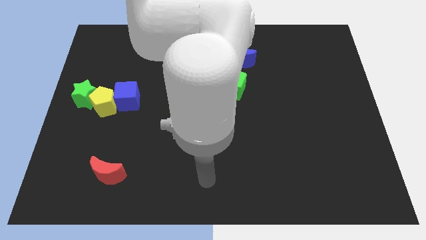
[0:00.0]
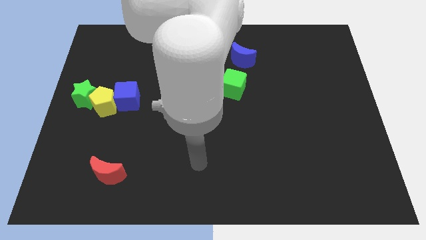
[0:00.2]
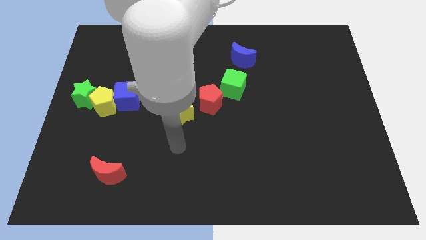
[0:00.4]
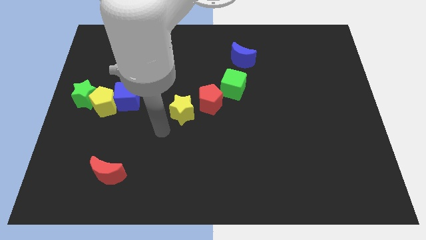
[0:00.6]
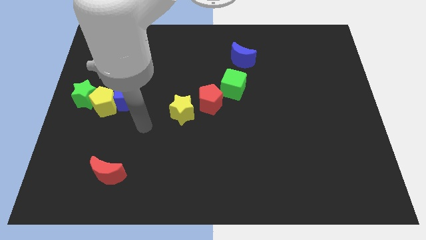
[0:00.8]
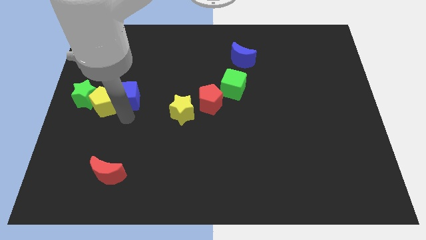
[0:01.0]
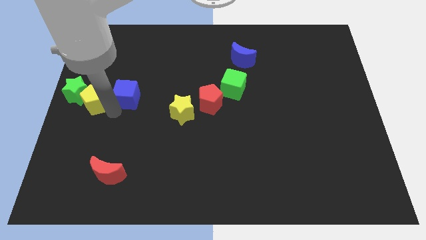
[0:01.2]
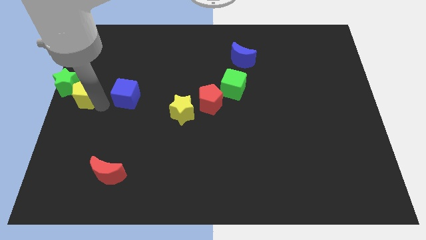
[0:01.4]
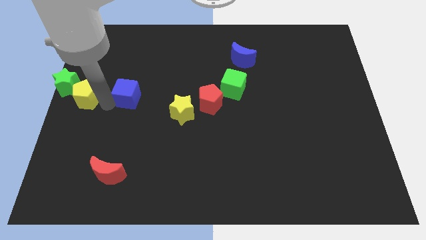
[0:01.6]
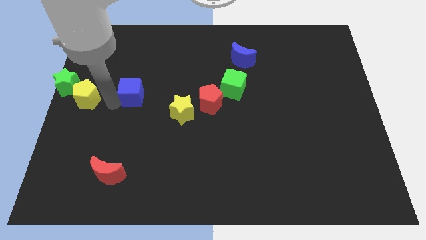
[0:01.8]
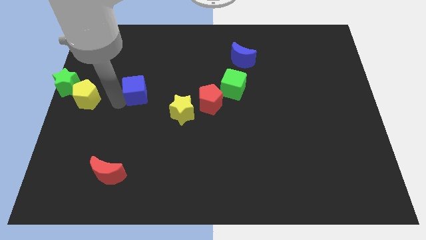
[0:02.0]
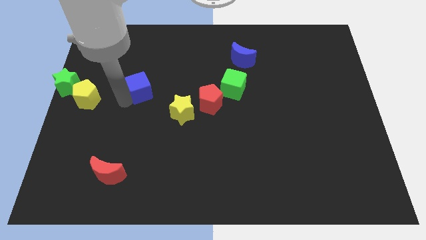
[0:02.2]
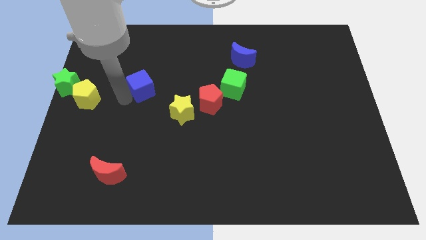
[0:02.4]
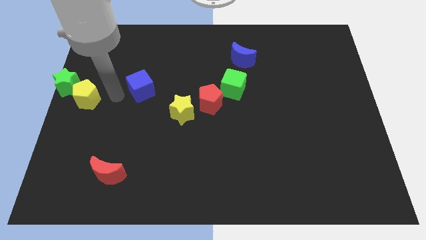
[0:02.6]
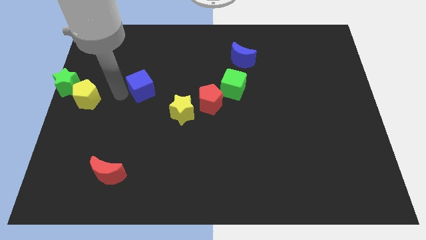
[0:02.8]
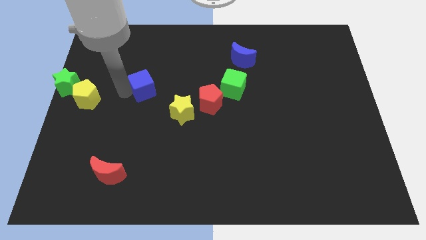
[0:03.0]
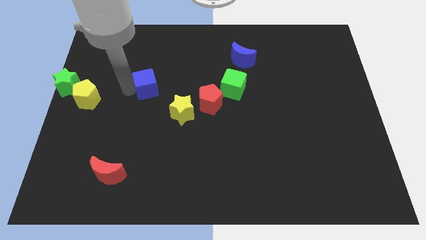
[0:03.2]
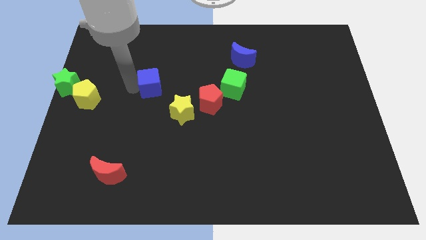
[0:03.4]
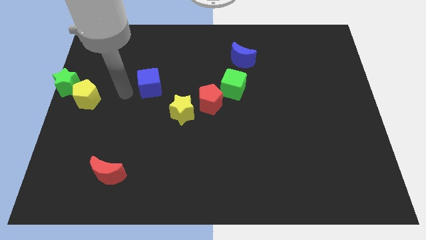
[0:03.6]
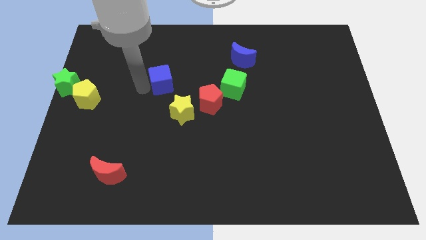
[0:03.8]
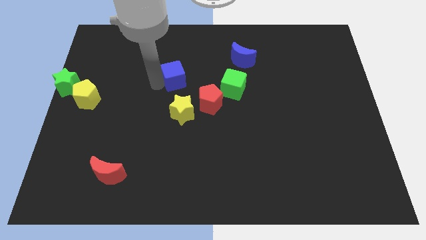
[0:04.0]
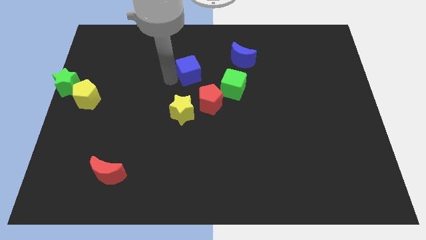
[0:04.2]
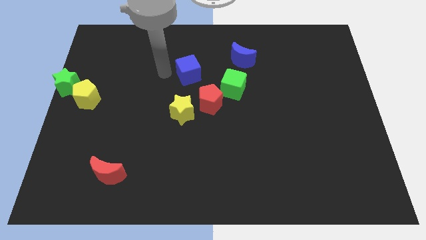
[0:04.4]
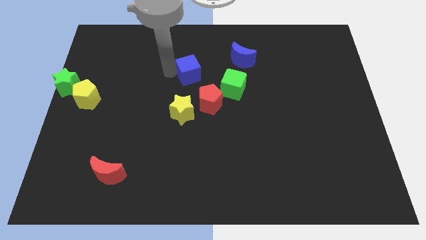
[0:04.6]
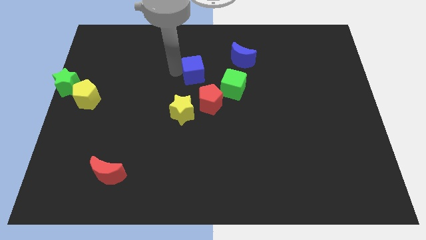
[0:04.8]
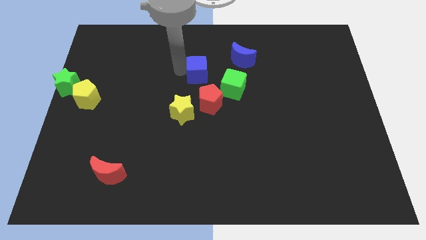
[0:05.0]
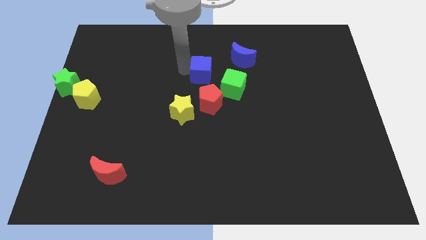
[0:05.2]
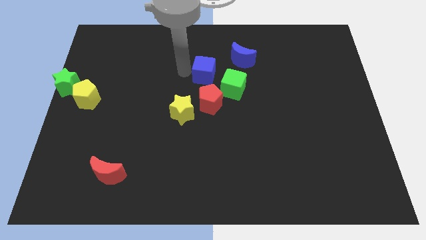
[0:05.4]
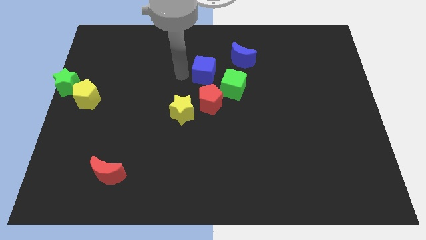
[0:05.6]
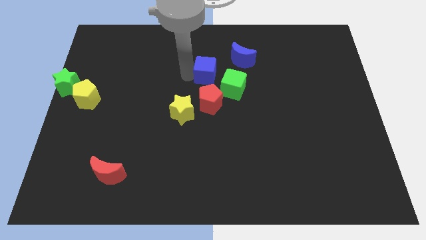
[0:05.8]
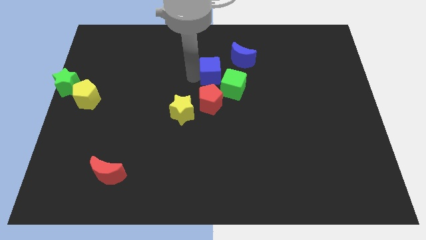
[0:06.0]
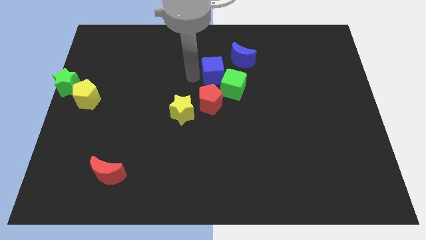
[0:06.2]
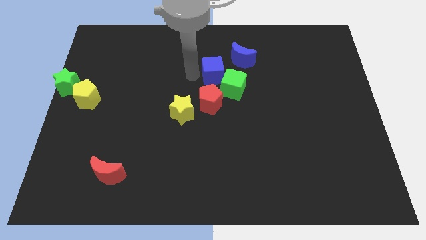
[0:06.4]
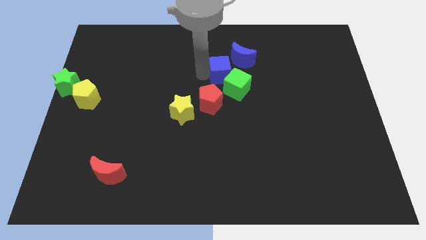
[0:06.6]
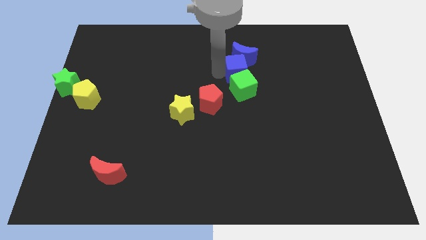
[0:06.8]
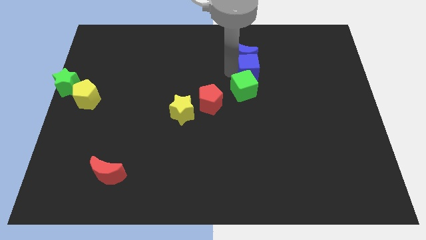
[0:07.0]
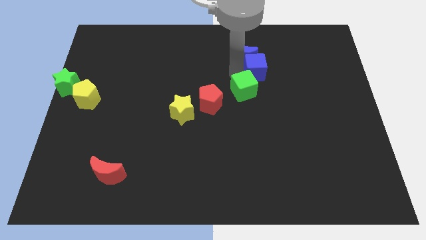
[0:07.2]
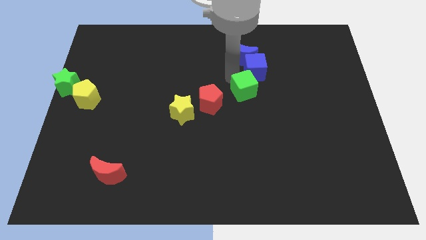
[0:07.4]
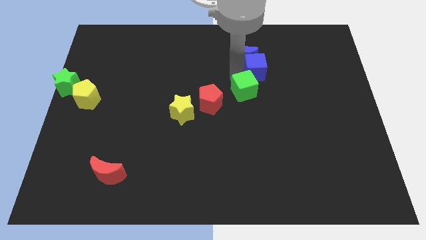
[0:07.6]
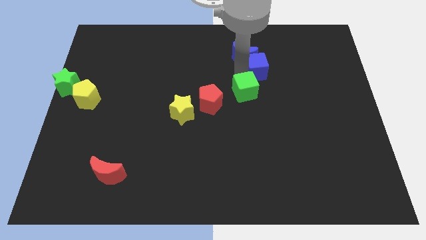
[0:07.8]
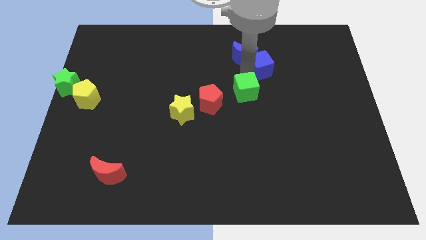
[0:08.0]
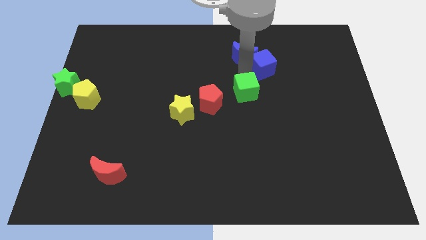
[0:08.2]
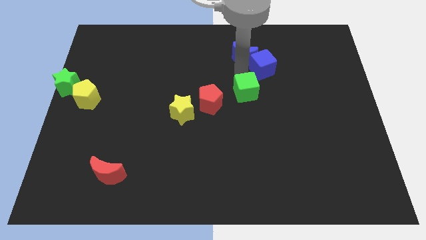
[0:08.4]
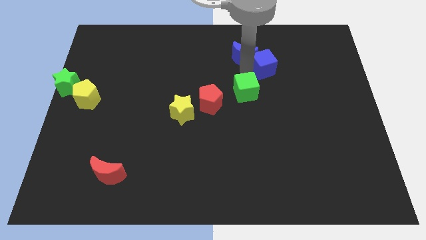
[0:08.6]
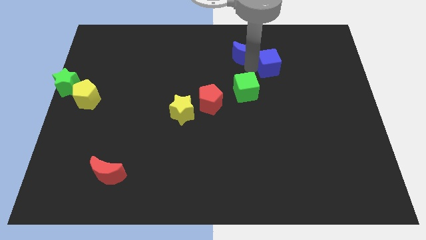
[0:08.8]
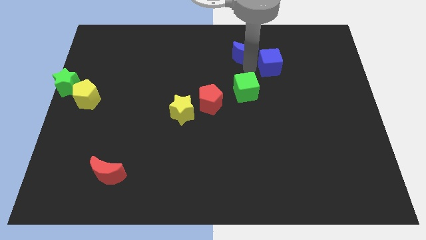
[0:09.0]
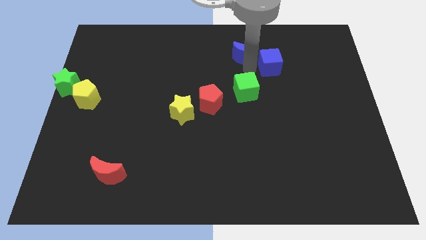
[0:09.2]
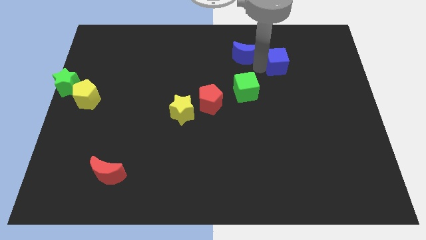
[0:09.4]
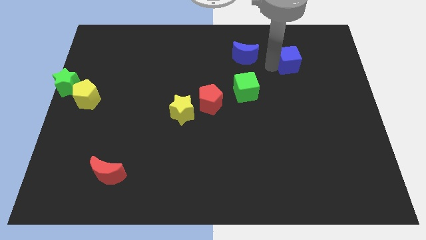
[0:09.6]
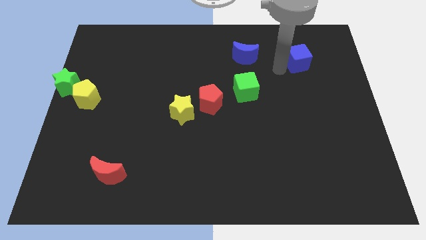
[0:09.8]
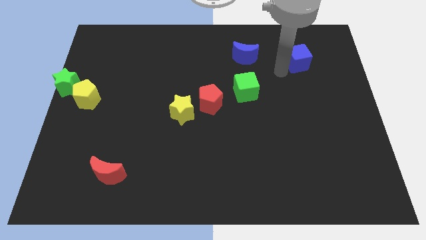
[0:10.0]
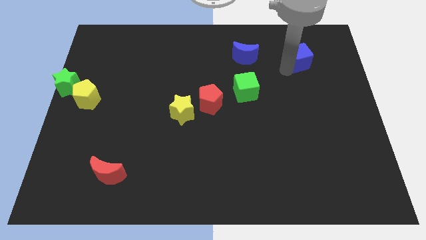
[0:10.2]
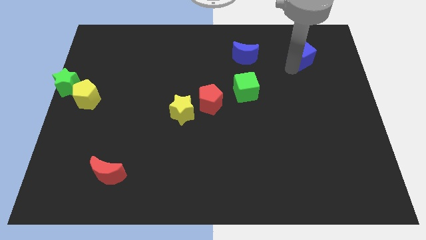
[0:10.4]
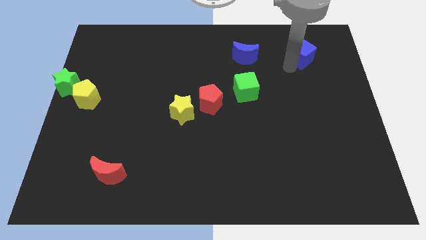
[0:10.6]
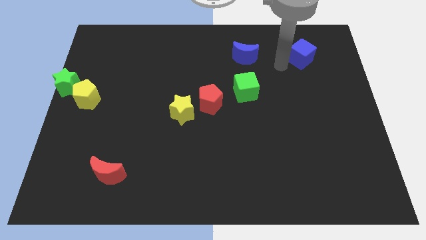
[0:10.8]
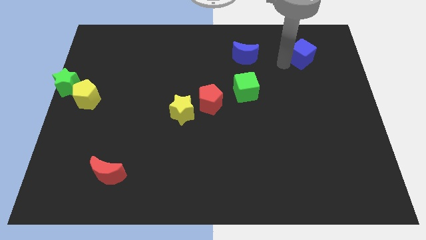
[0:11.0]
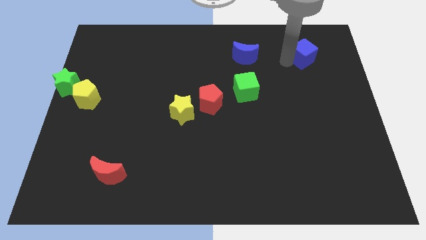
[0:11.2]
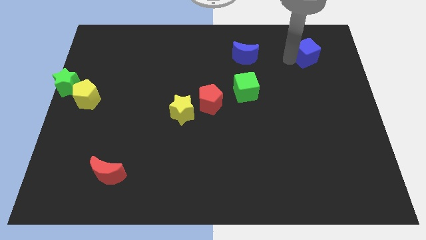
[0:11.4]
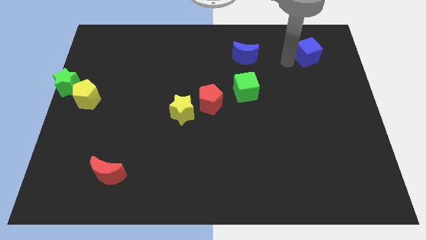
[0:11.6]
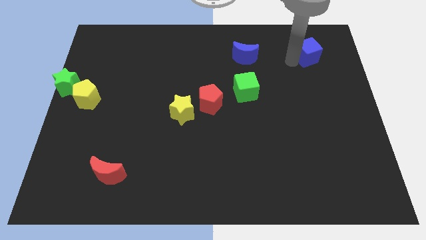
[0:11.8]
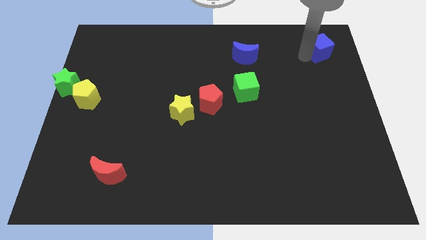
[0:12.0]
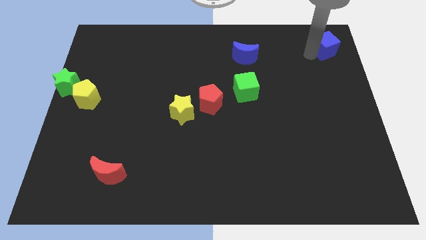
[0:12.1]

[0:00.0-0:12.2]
move the blue cube to the upper right corner
